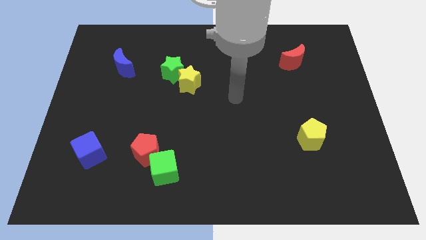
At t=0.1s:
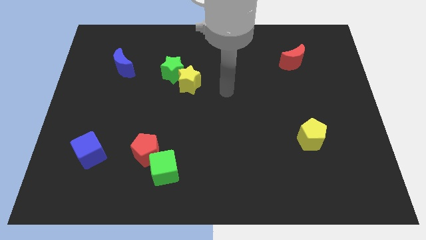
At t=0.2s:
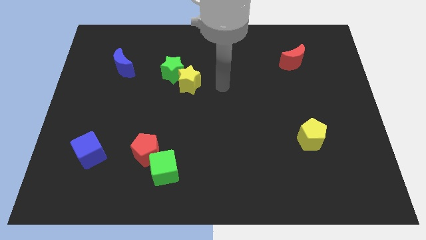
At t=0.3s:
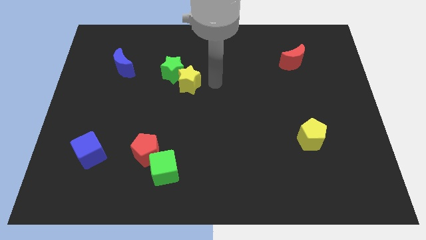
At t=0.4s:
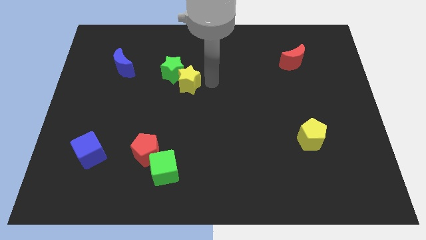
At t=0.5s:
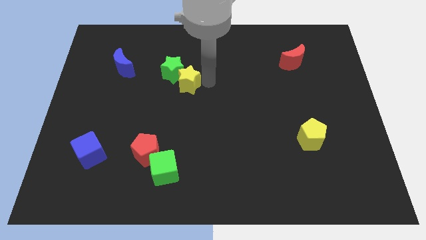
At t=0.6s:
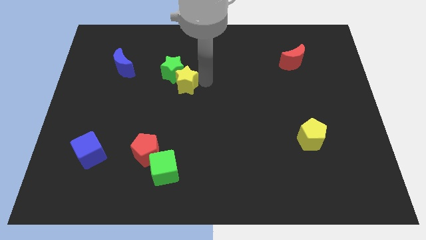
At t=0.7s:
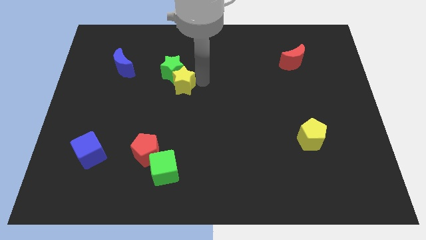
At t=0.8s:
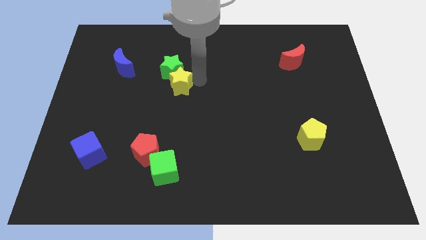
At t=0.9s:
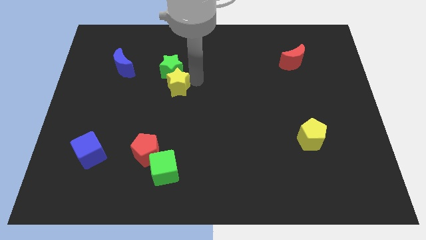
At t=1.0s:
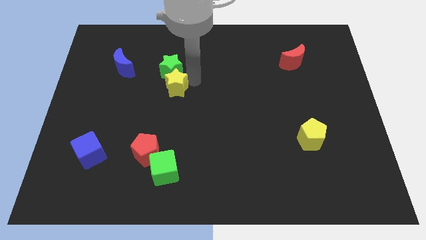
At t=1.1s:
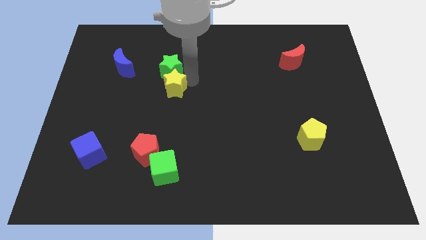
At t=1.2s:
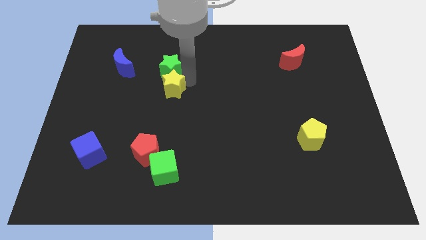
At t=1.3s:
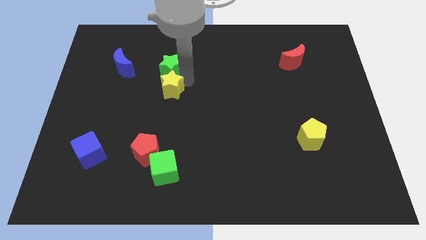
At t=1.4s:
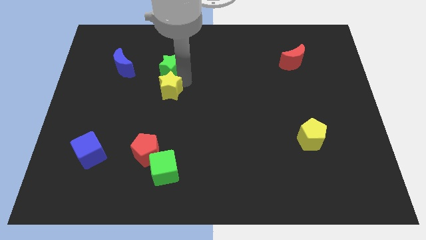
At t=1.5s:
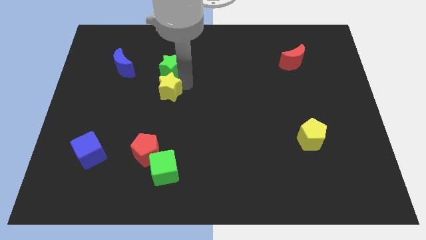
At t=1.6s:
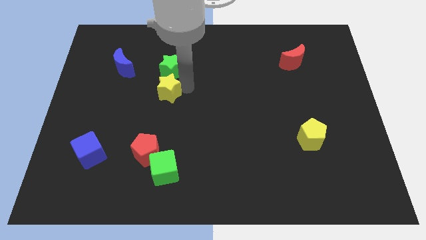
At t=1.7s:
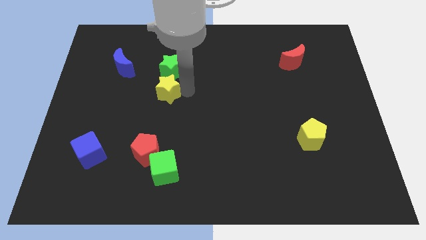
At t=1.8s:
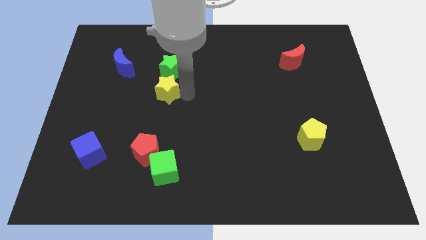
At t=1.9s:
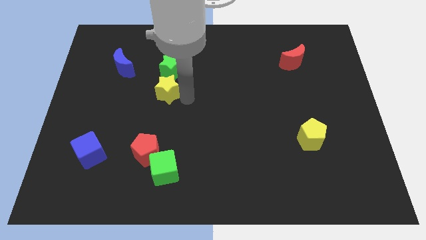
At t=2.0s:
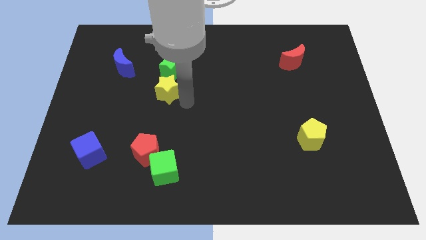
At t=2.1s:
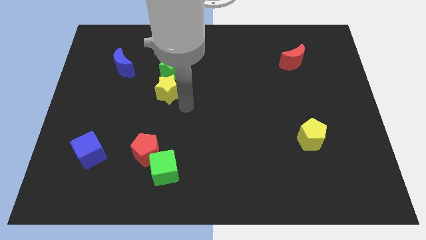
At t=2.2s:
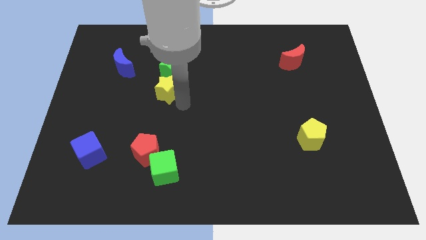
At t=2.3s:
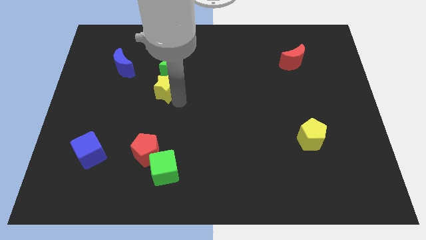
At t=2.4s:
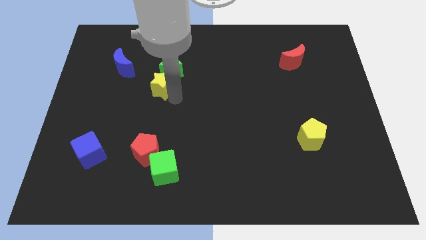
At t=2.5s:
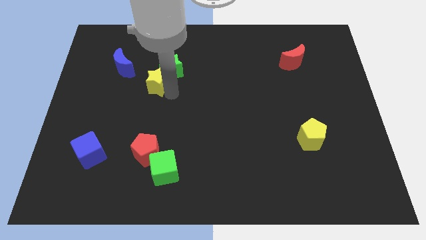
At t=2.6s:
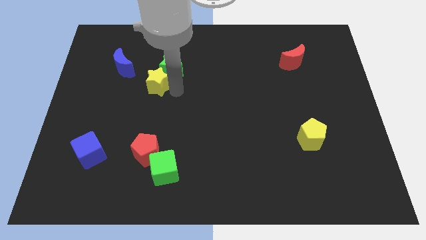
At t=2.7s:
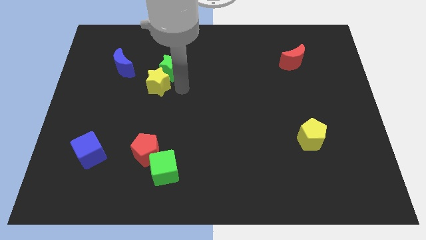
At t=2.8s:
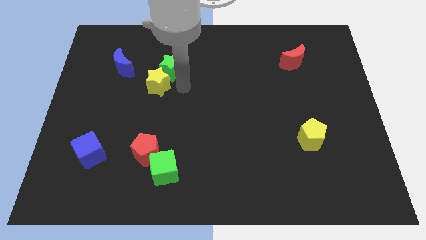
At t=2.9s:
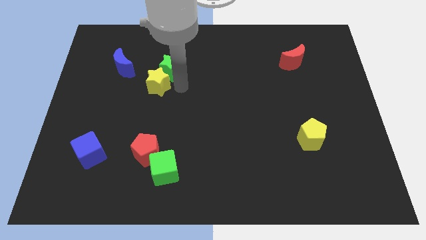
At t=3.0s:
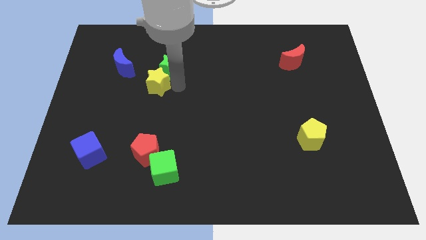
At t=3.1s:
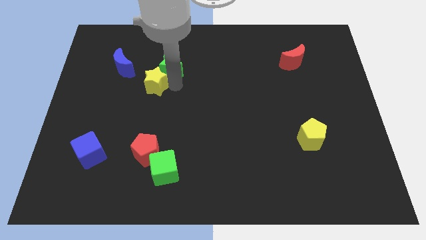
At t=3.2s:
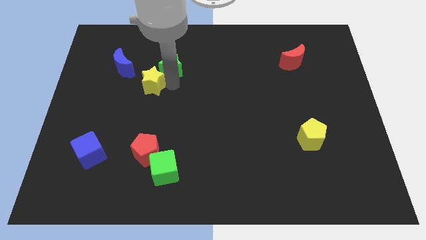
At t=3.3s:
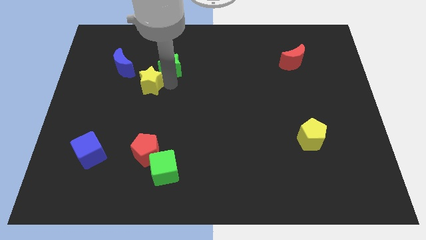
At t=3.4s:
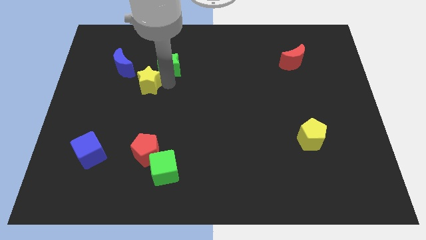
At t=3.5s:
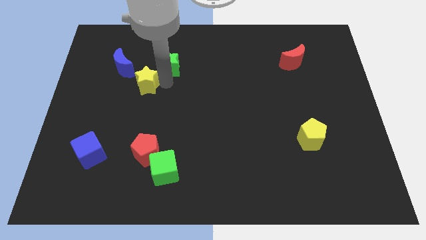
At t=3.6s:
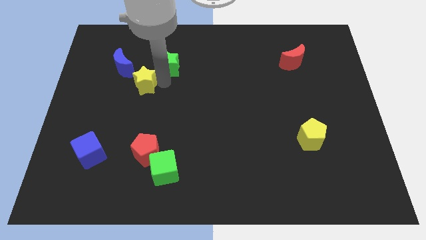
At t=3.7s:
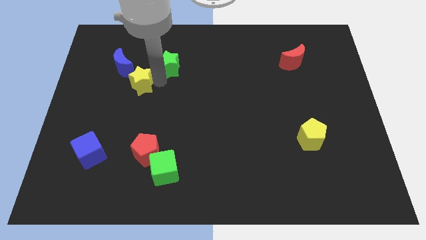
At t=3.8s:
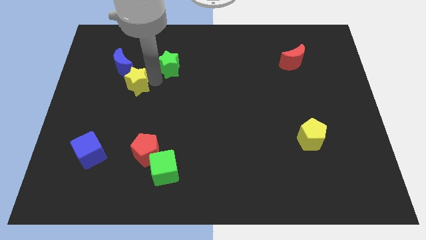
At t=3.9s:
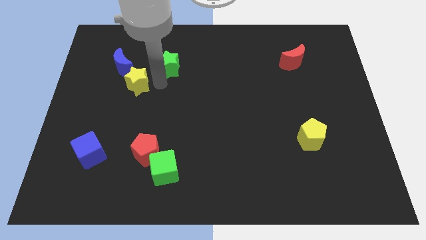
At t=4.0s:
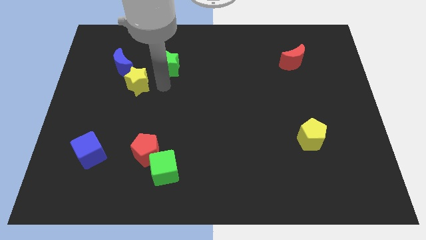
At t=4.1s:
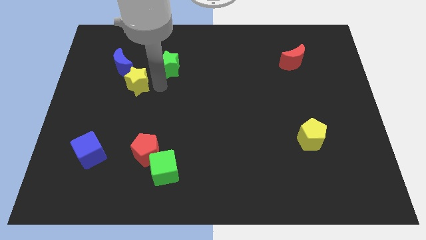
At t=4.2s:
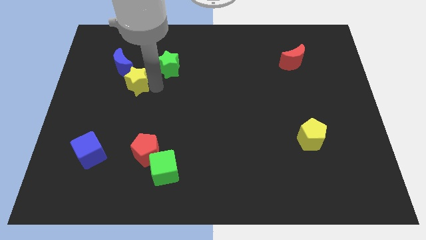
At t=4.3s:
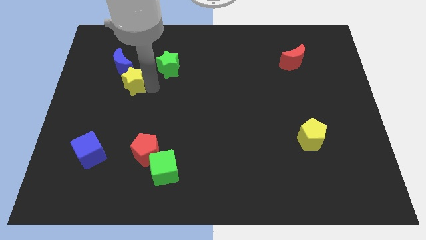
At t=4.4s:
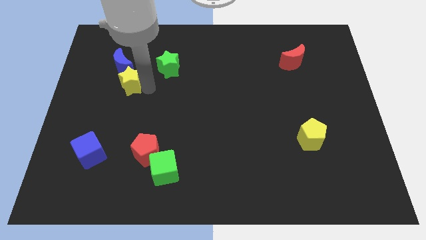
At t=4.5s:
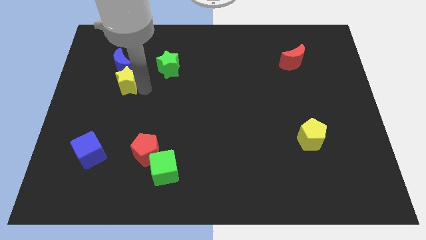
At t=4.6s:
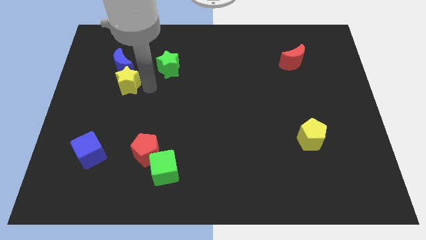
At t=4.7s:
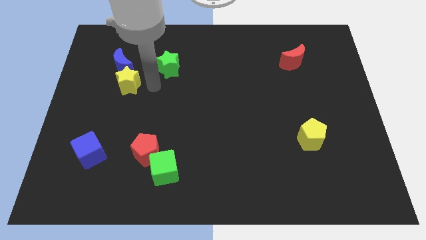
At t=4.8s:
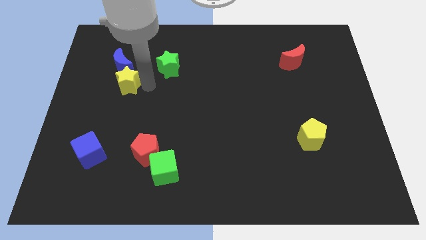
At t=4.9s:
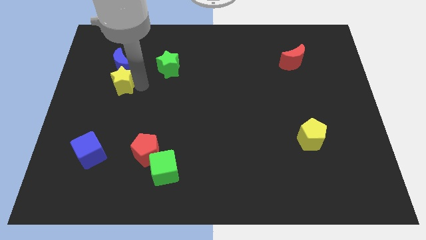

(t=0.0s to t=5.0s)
slide the yellow star diagonally down and to the left of the blue moon

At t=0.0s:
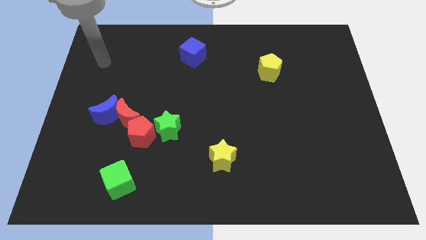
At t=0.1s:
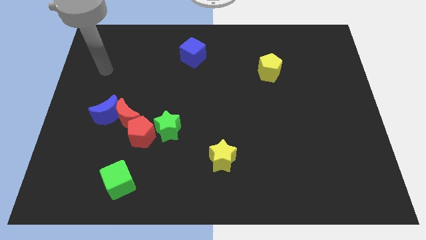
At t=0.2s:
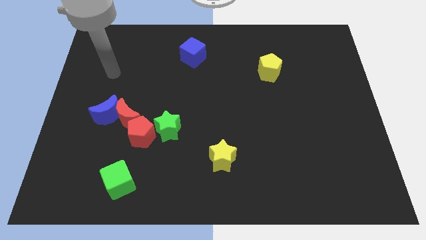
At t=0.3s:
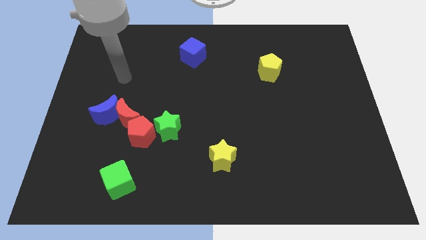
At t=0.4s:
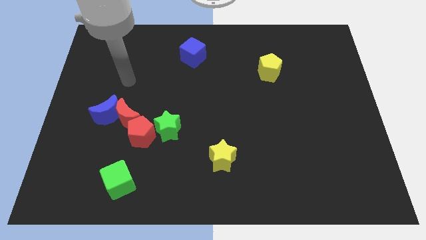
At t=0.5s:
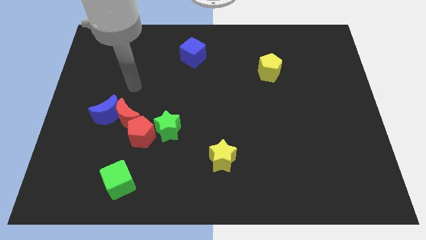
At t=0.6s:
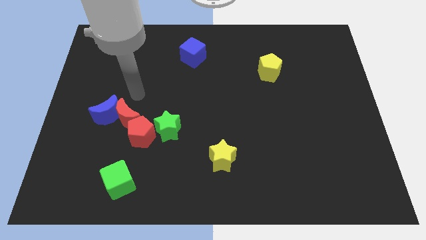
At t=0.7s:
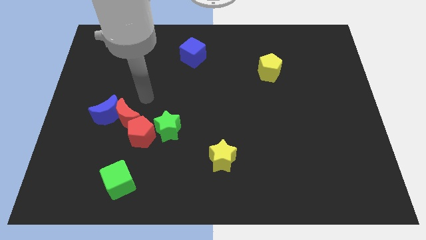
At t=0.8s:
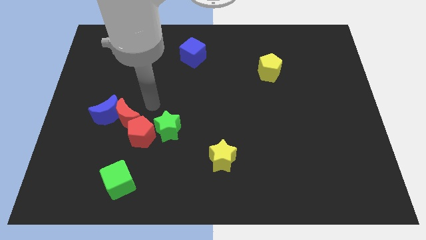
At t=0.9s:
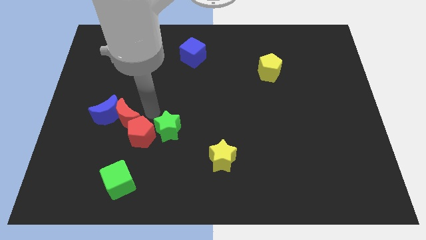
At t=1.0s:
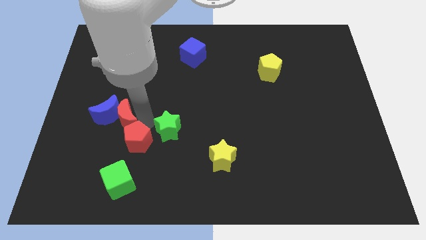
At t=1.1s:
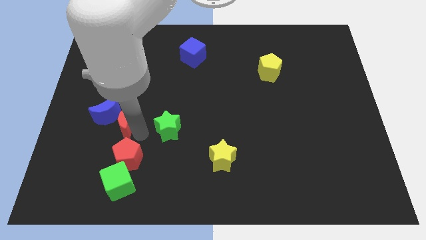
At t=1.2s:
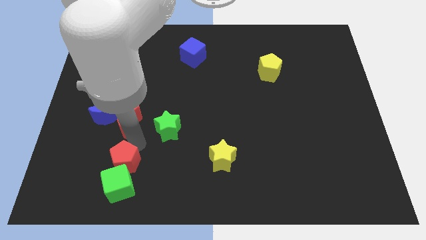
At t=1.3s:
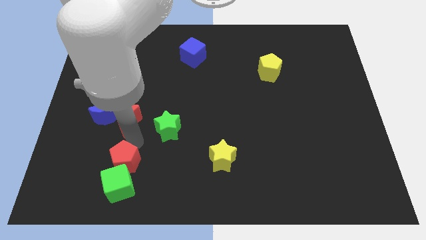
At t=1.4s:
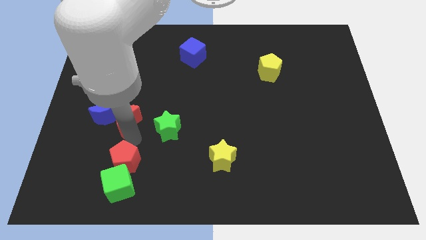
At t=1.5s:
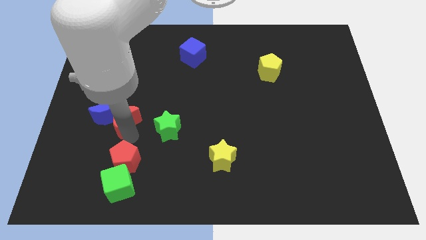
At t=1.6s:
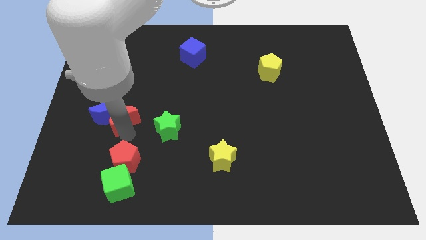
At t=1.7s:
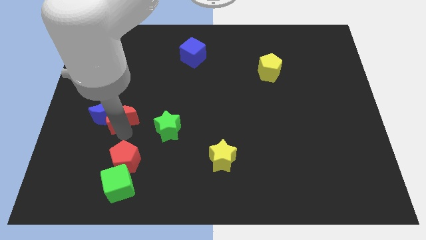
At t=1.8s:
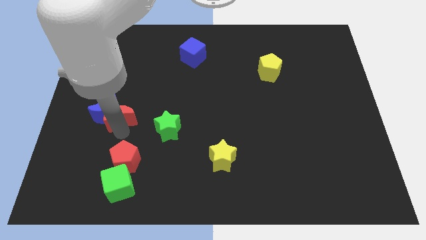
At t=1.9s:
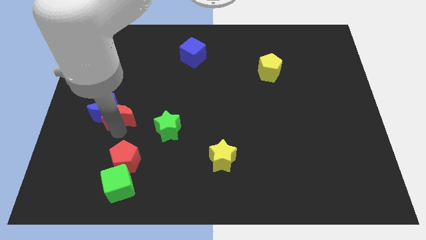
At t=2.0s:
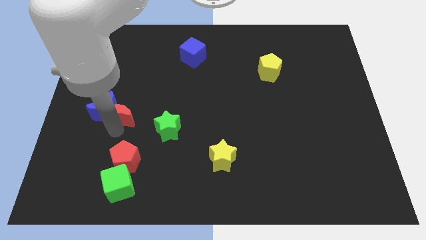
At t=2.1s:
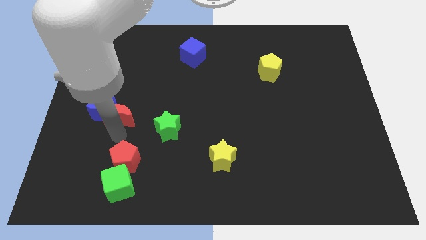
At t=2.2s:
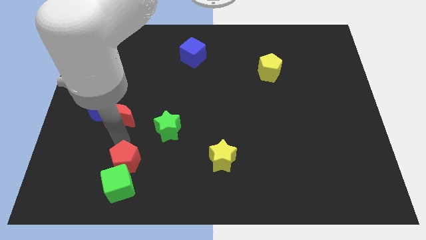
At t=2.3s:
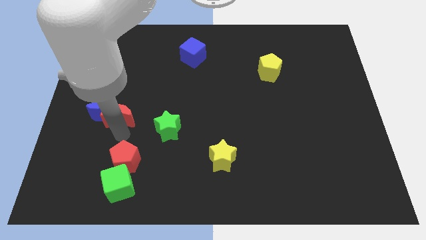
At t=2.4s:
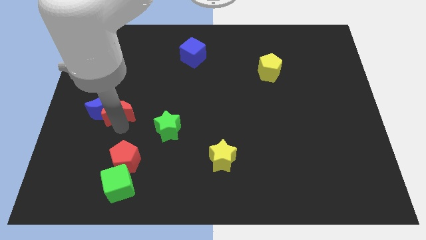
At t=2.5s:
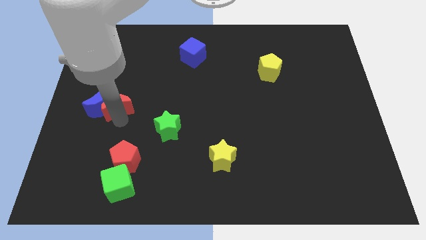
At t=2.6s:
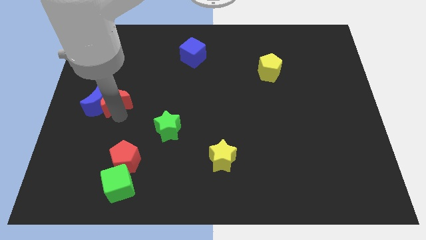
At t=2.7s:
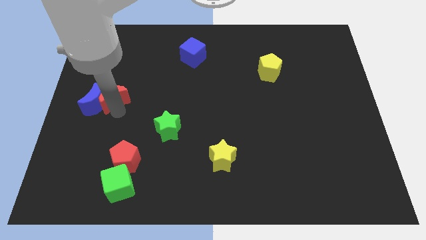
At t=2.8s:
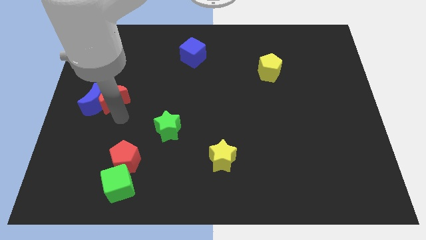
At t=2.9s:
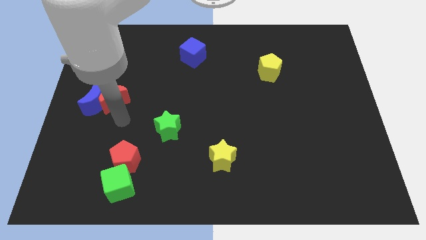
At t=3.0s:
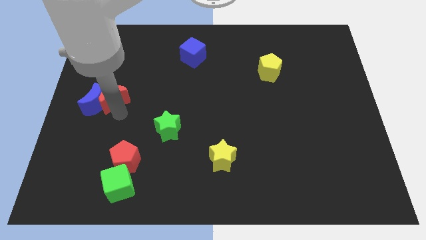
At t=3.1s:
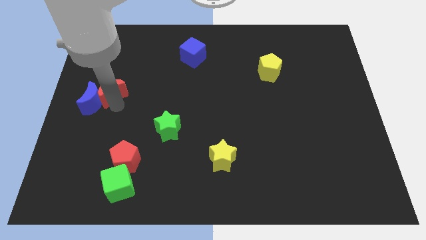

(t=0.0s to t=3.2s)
push the red moon above the blue moon

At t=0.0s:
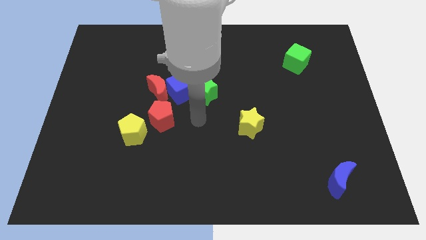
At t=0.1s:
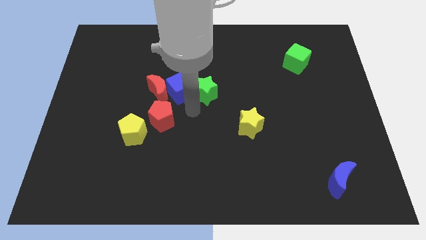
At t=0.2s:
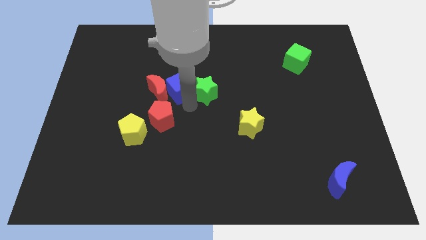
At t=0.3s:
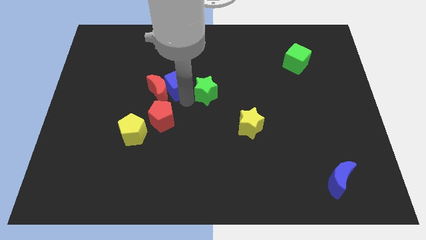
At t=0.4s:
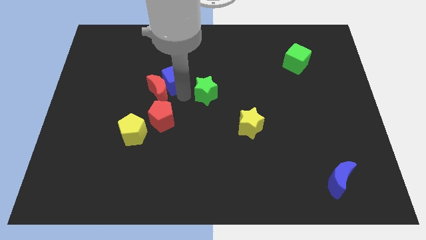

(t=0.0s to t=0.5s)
slide the blue cube to the top of the red moon
